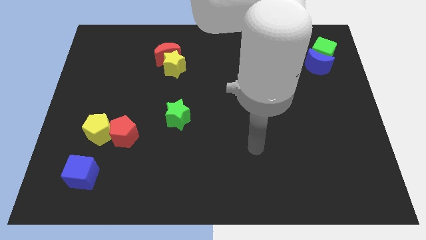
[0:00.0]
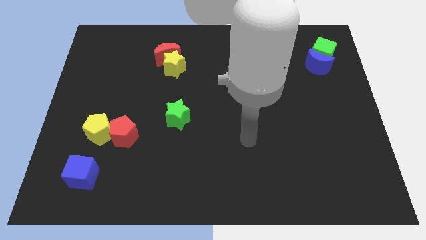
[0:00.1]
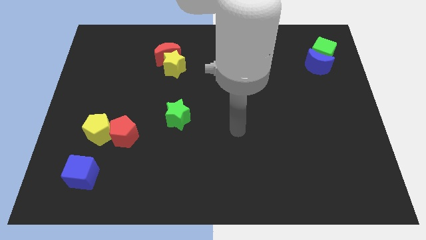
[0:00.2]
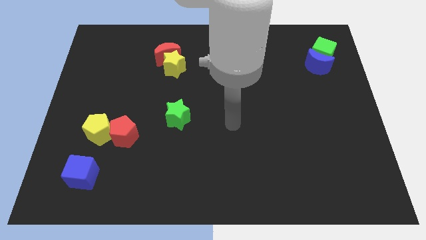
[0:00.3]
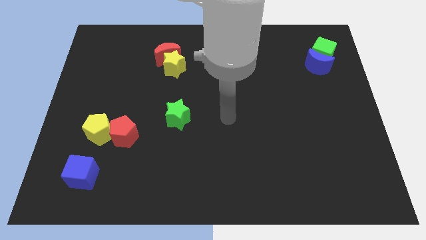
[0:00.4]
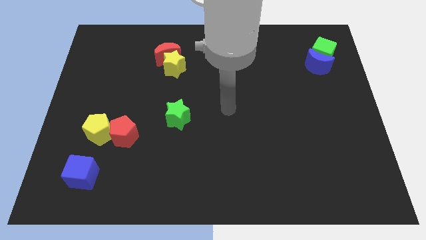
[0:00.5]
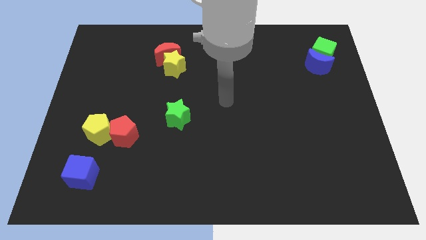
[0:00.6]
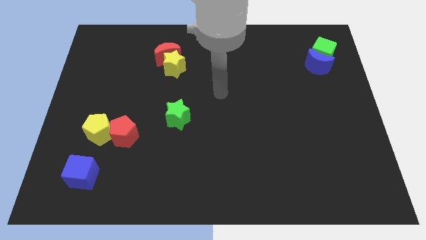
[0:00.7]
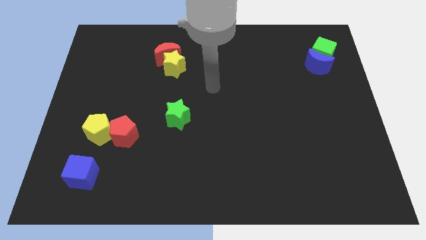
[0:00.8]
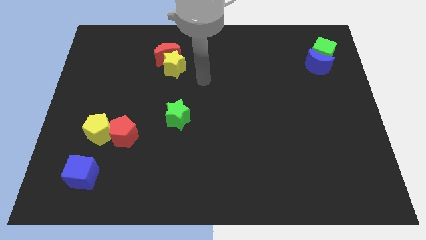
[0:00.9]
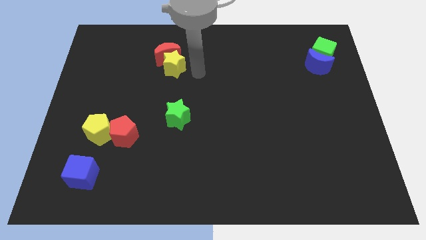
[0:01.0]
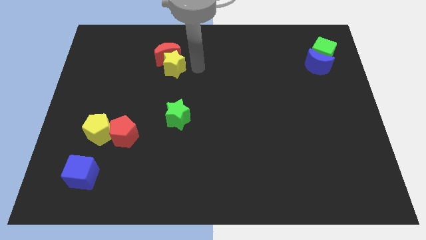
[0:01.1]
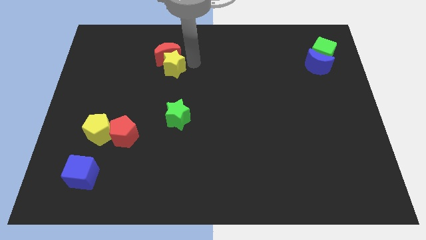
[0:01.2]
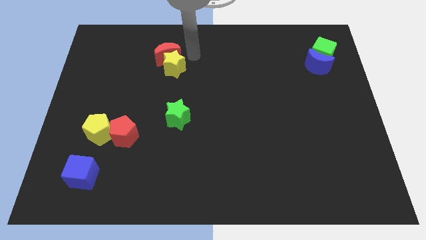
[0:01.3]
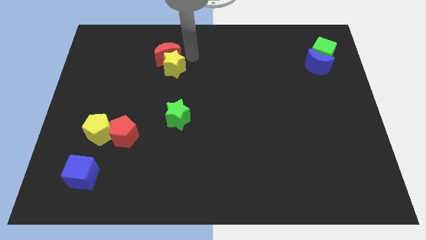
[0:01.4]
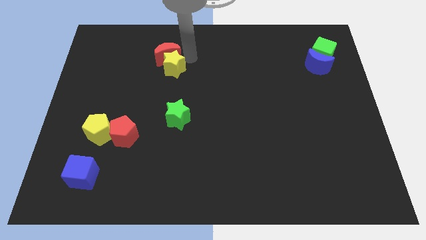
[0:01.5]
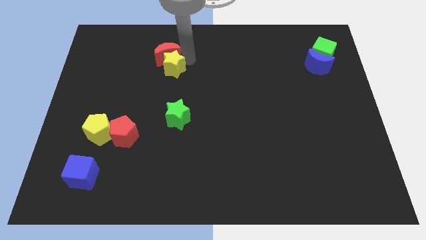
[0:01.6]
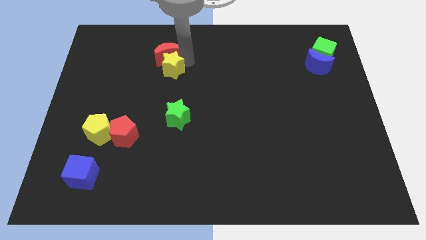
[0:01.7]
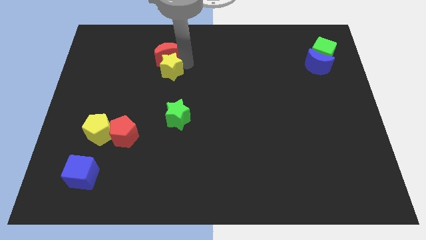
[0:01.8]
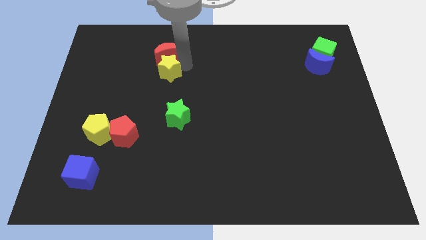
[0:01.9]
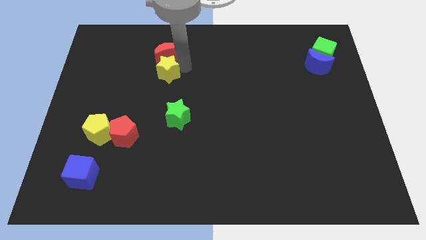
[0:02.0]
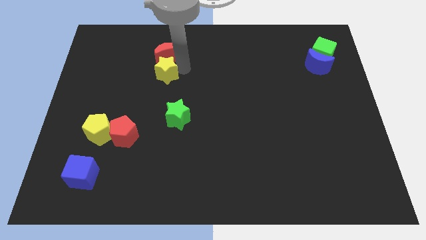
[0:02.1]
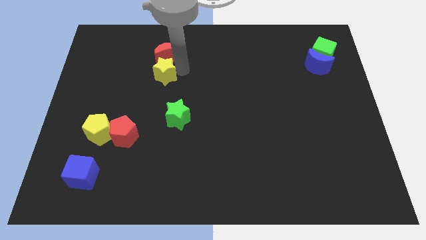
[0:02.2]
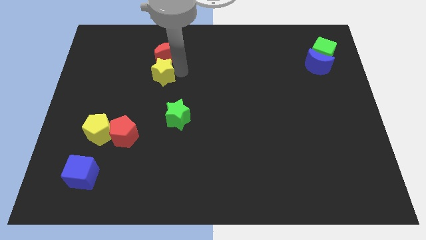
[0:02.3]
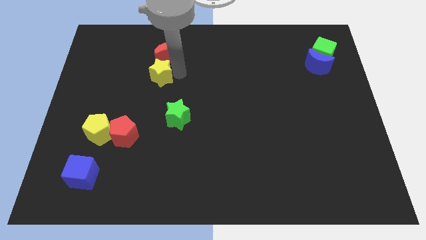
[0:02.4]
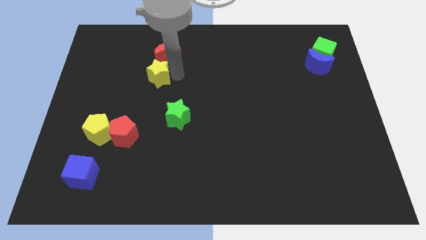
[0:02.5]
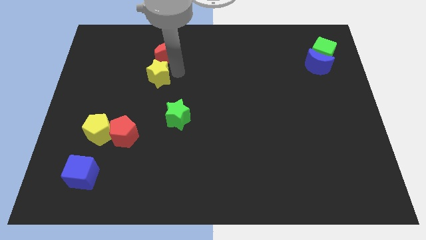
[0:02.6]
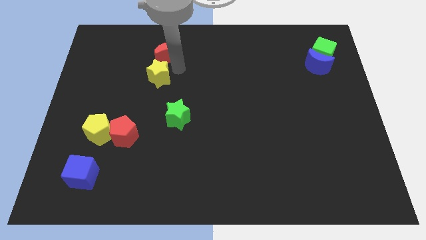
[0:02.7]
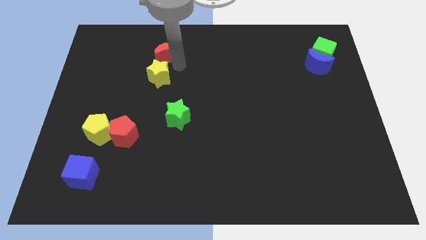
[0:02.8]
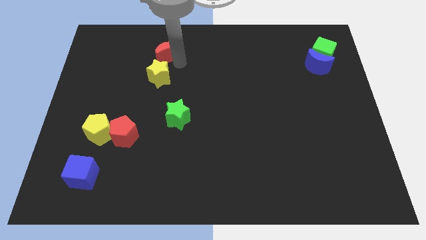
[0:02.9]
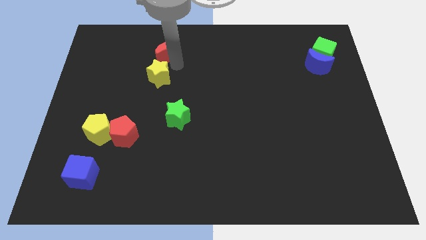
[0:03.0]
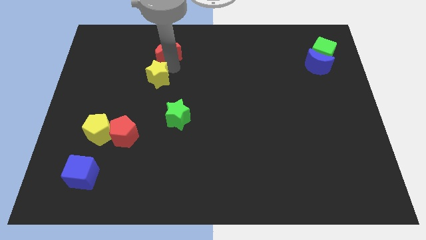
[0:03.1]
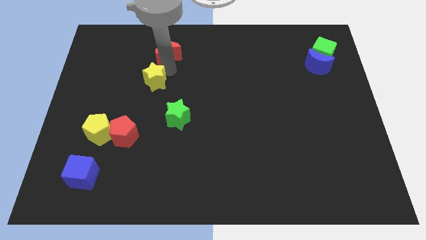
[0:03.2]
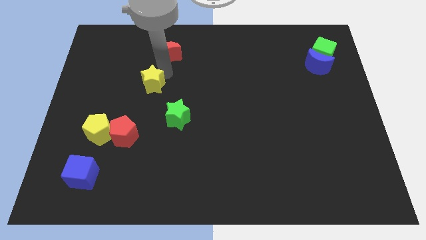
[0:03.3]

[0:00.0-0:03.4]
move the yellow star downwards and to the left a little

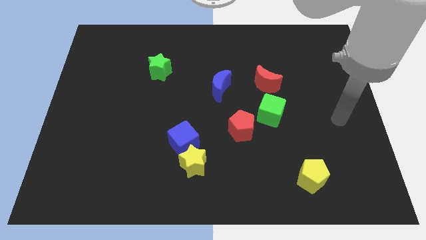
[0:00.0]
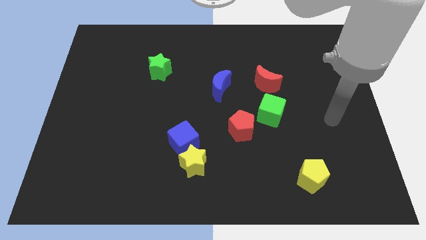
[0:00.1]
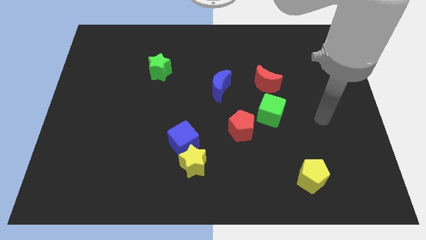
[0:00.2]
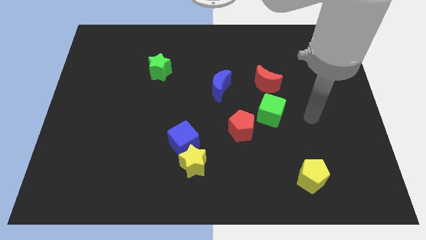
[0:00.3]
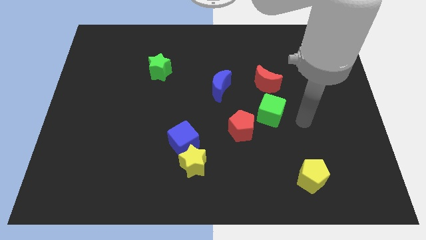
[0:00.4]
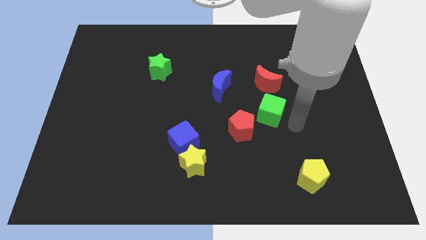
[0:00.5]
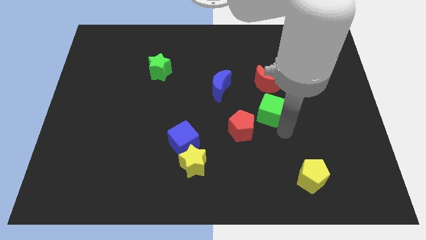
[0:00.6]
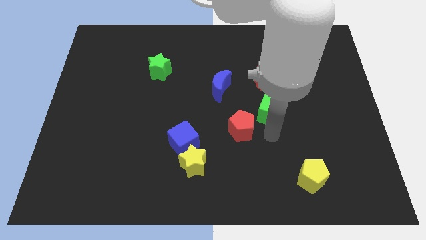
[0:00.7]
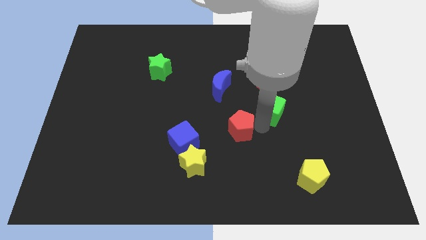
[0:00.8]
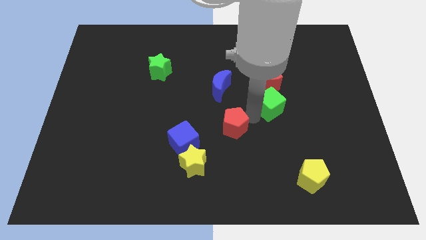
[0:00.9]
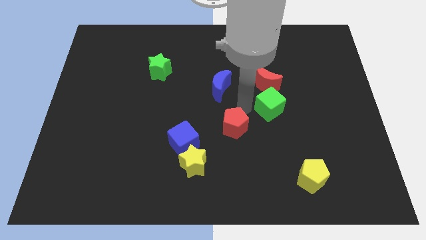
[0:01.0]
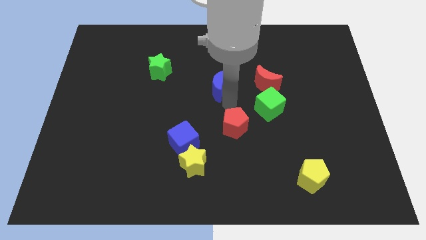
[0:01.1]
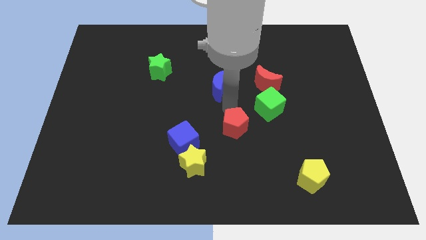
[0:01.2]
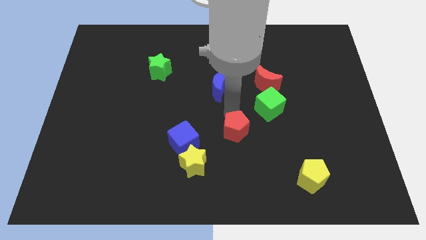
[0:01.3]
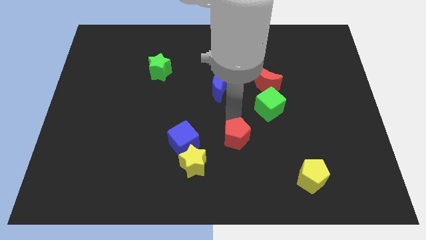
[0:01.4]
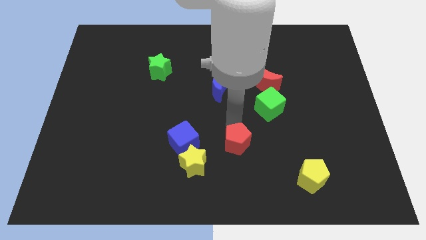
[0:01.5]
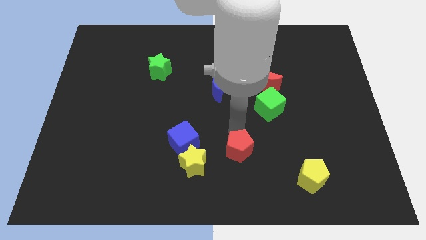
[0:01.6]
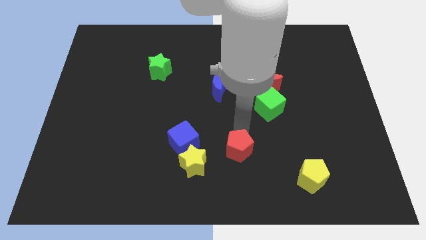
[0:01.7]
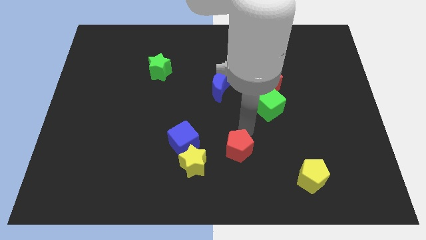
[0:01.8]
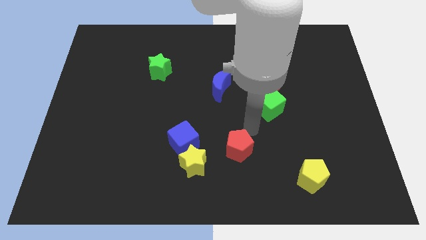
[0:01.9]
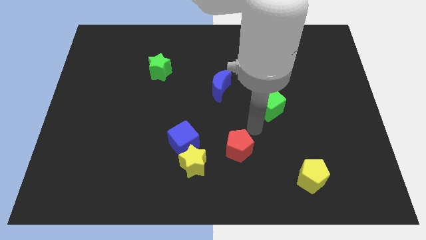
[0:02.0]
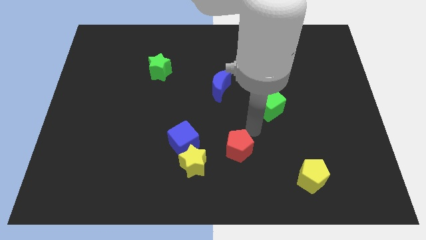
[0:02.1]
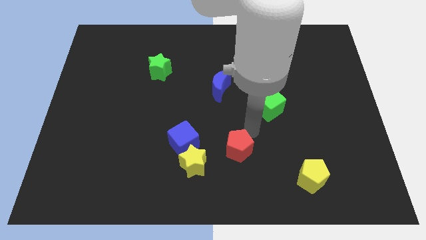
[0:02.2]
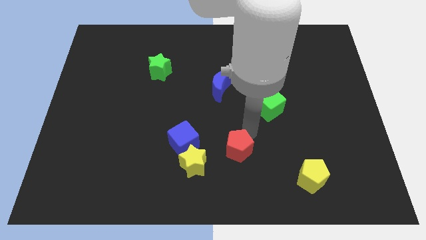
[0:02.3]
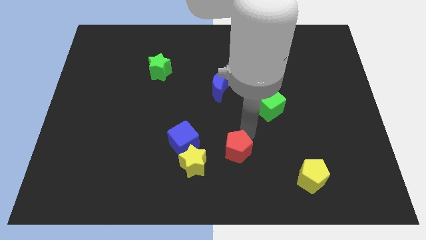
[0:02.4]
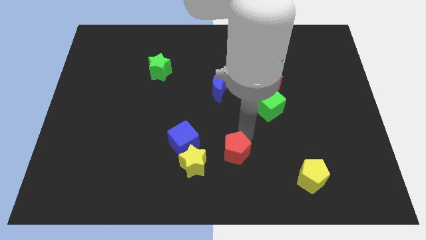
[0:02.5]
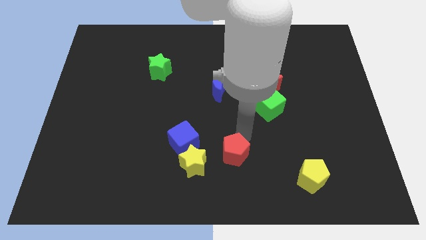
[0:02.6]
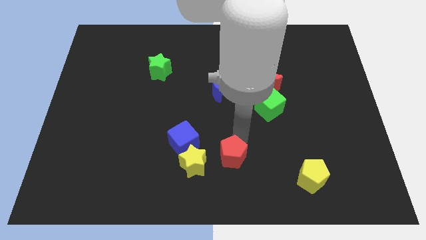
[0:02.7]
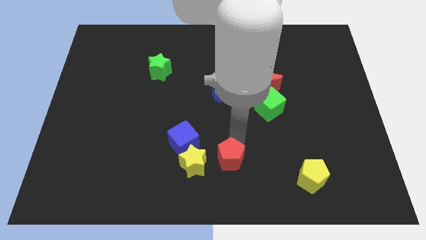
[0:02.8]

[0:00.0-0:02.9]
push the red pentagon somewhat downwards and left diagonally

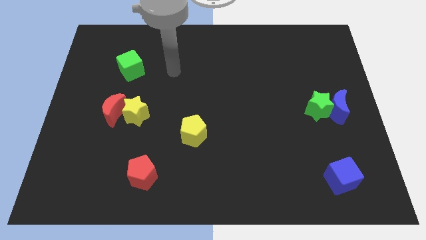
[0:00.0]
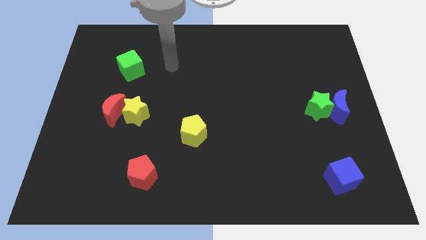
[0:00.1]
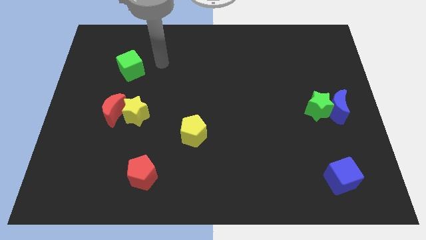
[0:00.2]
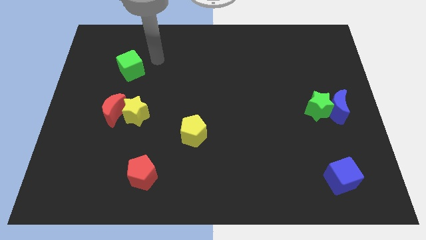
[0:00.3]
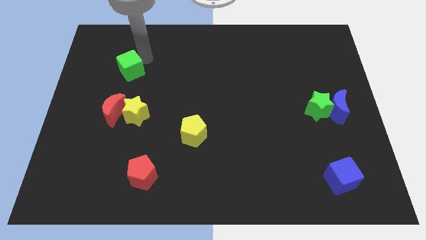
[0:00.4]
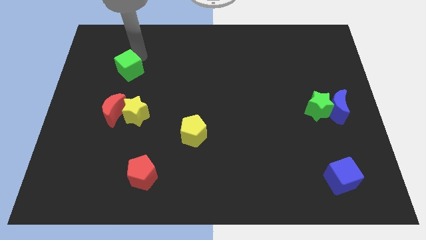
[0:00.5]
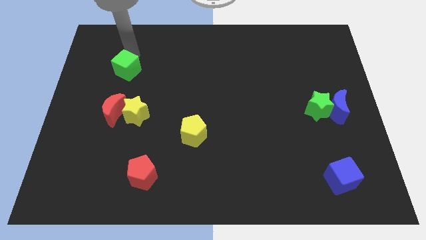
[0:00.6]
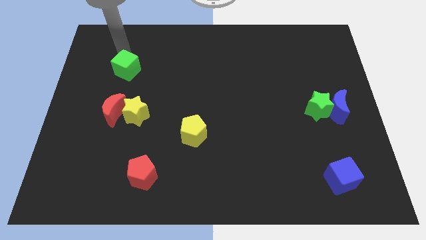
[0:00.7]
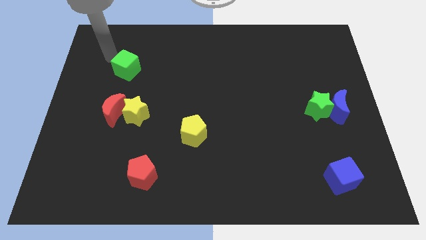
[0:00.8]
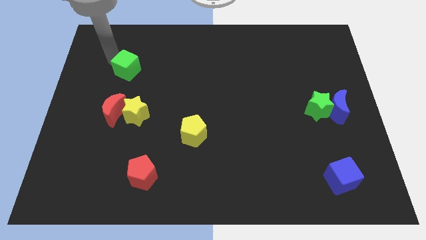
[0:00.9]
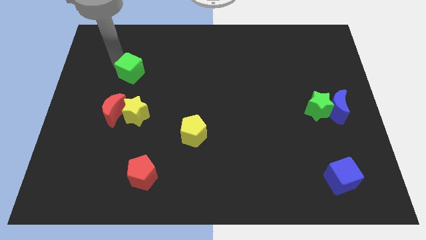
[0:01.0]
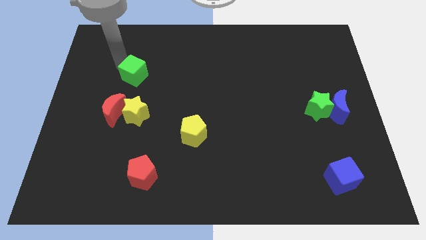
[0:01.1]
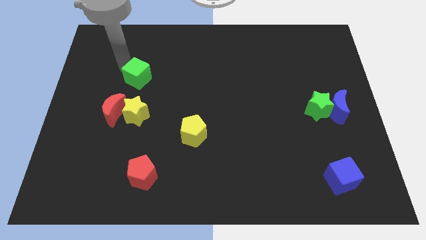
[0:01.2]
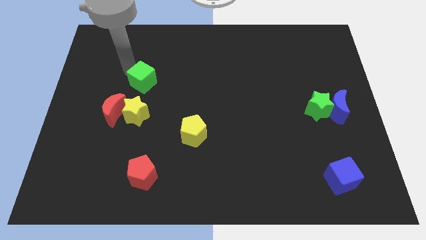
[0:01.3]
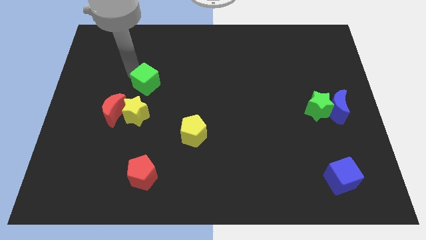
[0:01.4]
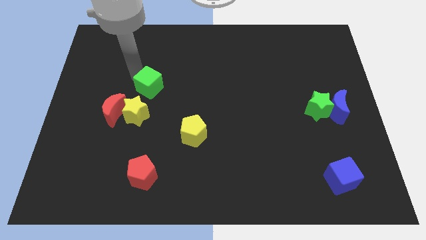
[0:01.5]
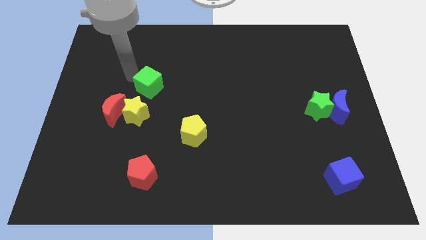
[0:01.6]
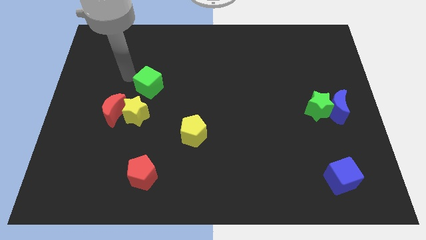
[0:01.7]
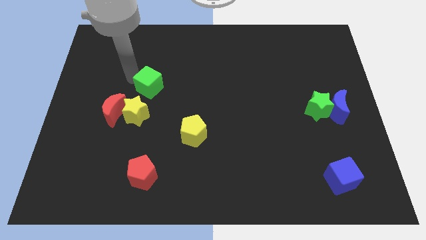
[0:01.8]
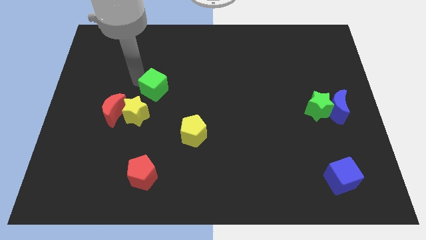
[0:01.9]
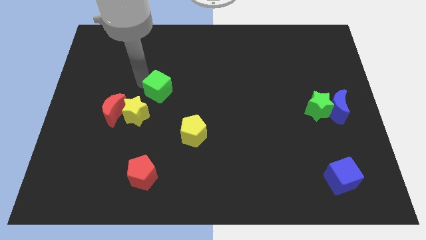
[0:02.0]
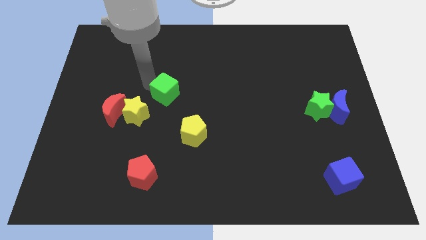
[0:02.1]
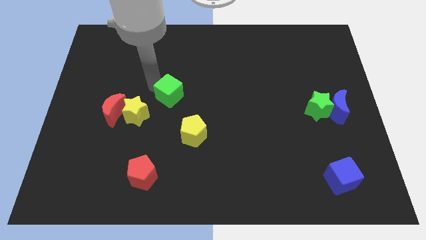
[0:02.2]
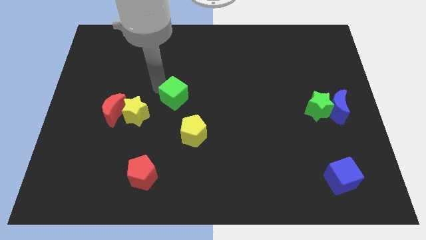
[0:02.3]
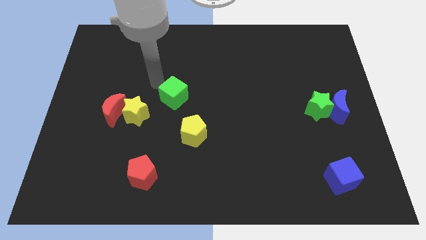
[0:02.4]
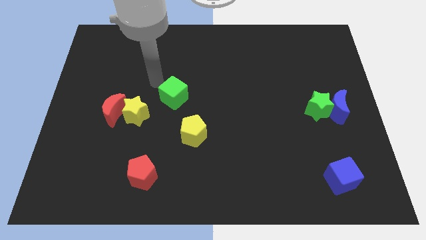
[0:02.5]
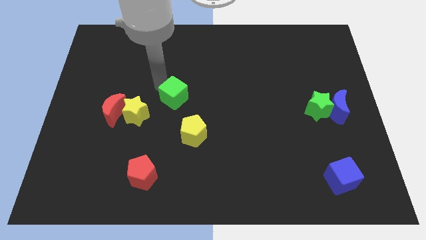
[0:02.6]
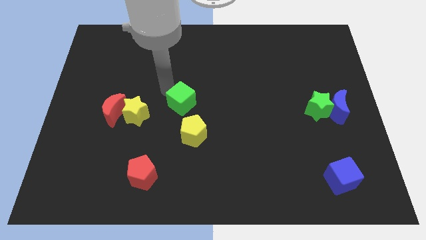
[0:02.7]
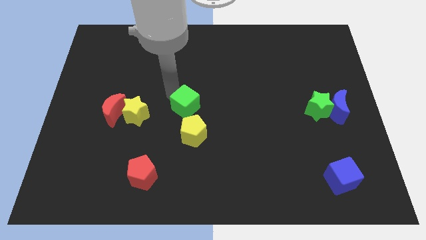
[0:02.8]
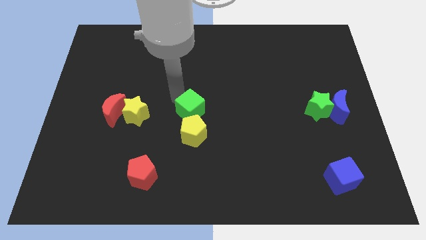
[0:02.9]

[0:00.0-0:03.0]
push the green cube down and right
